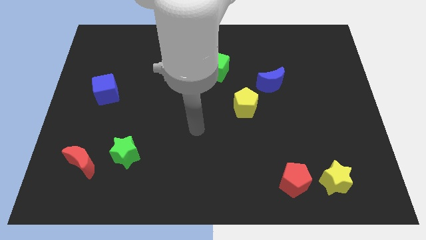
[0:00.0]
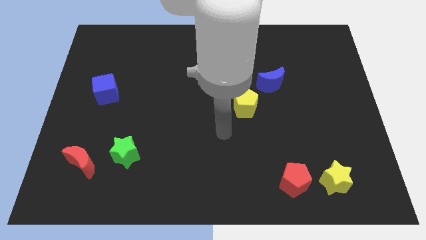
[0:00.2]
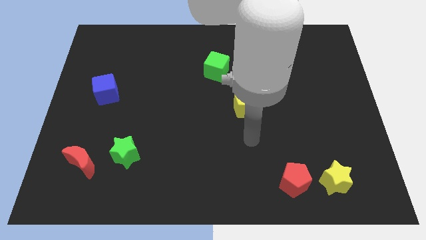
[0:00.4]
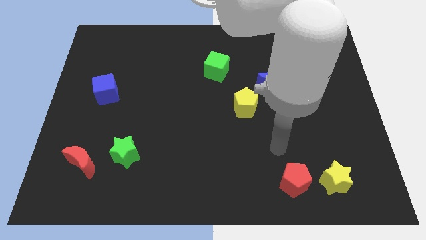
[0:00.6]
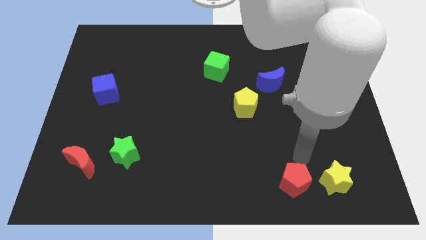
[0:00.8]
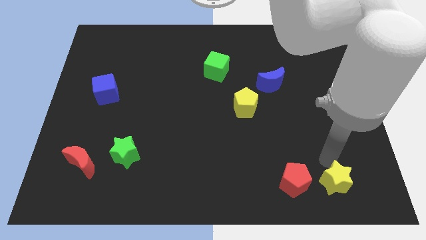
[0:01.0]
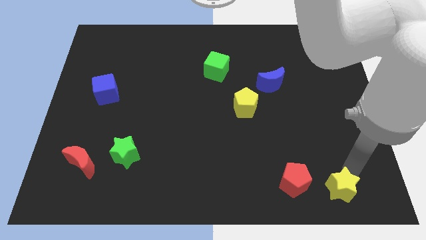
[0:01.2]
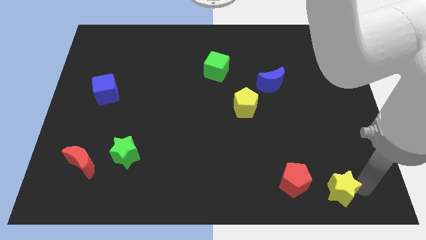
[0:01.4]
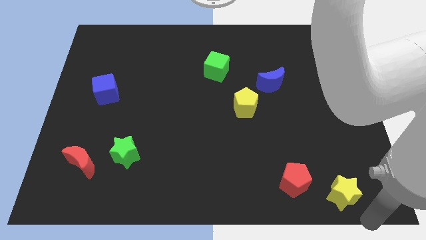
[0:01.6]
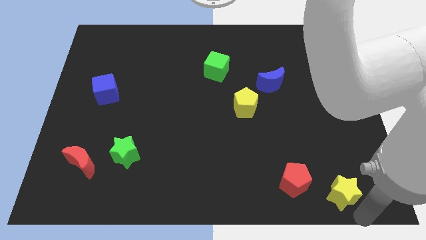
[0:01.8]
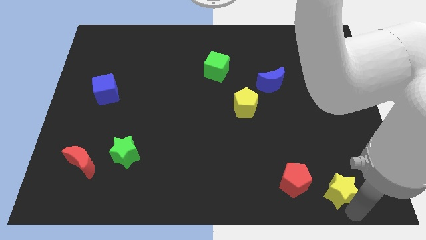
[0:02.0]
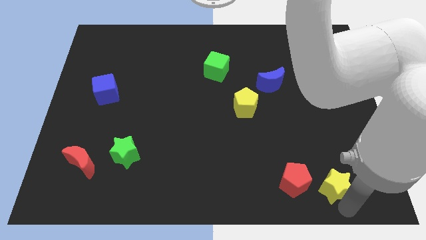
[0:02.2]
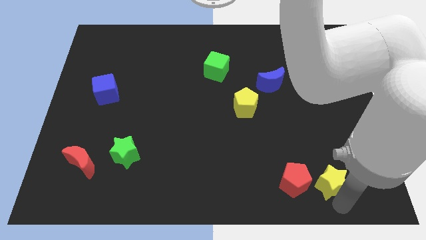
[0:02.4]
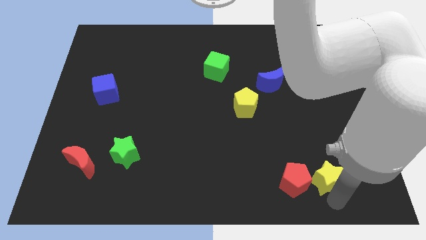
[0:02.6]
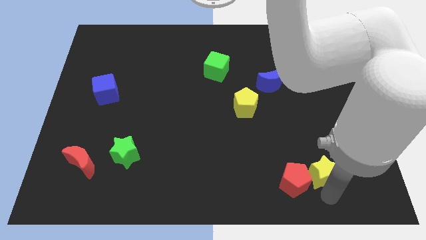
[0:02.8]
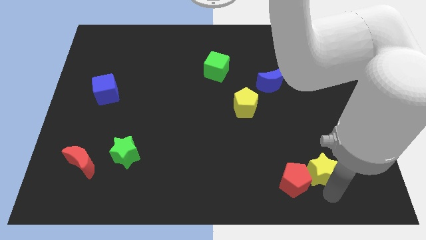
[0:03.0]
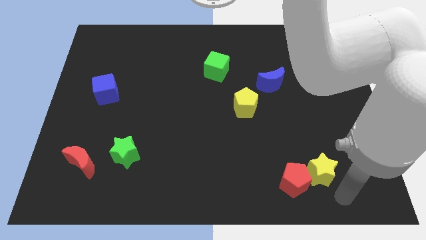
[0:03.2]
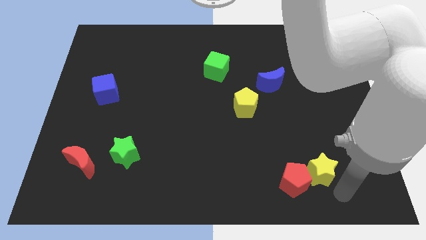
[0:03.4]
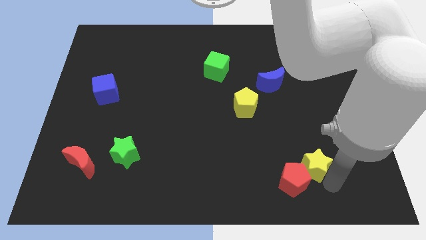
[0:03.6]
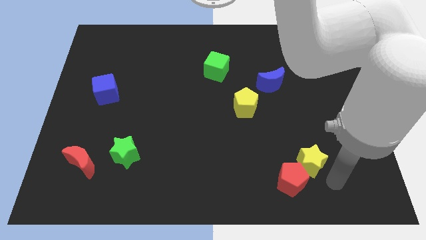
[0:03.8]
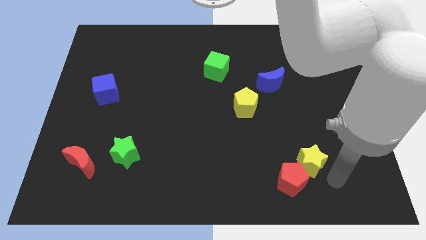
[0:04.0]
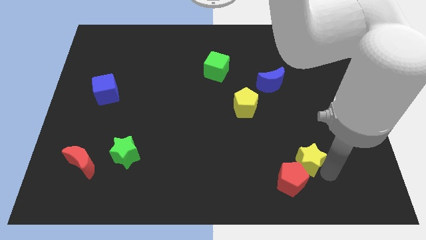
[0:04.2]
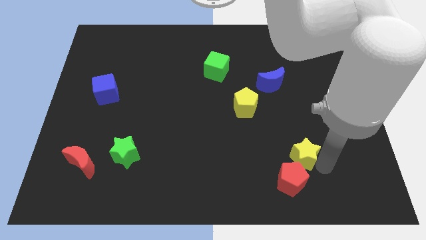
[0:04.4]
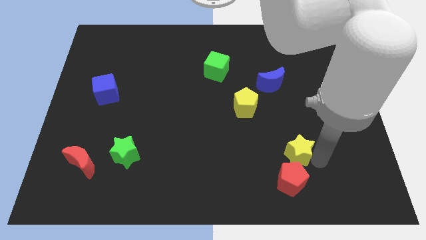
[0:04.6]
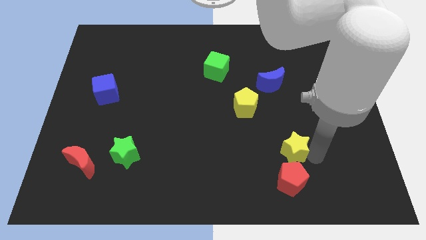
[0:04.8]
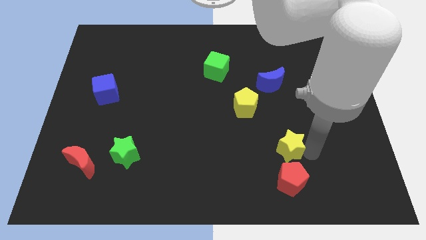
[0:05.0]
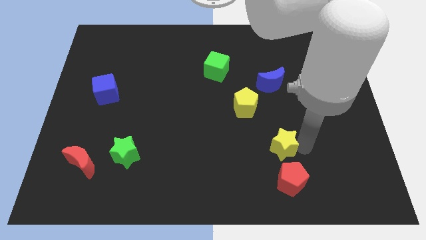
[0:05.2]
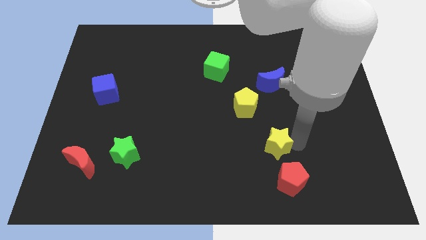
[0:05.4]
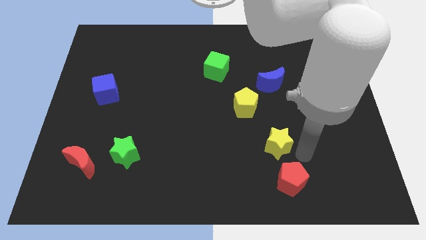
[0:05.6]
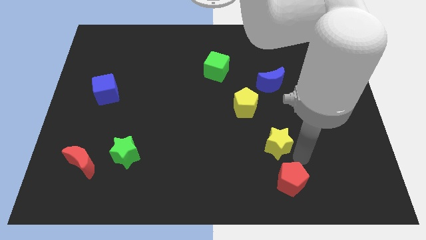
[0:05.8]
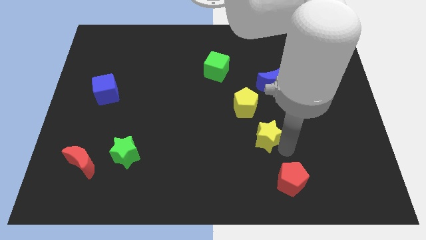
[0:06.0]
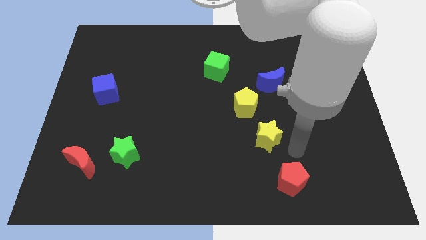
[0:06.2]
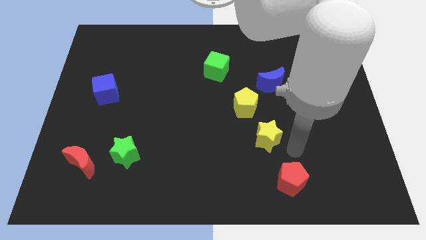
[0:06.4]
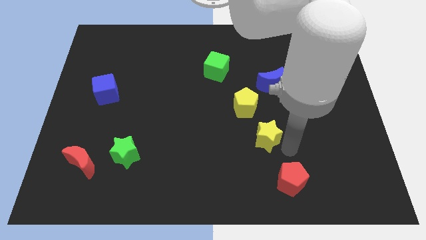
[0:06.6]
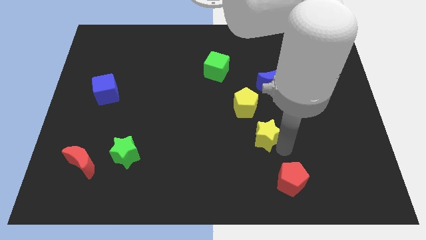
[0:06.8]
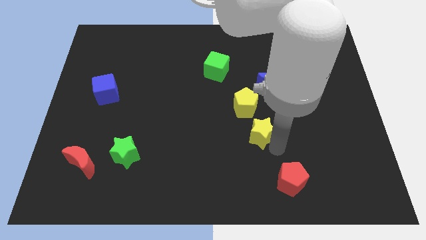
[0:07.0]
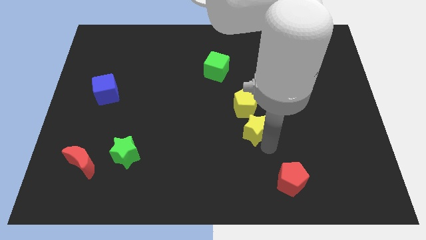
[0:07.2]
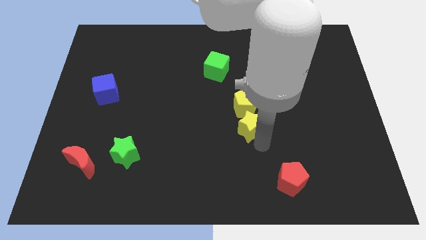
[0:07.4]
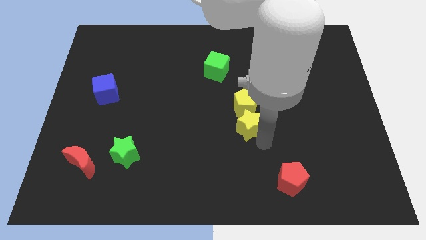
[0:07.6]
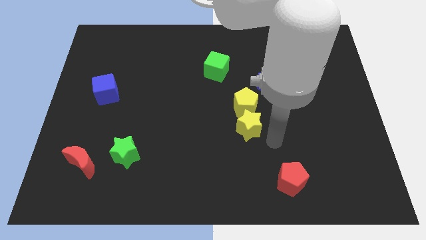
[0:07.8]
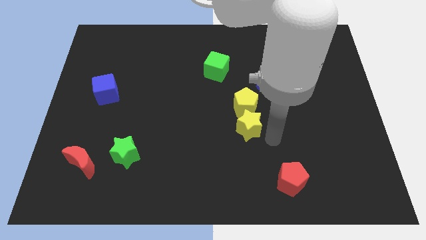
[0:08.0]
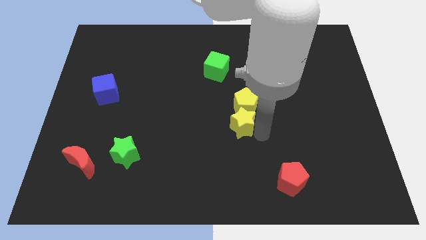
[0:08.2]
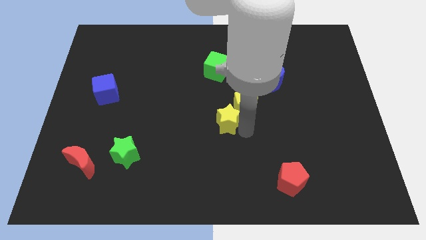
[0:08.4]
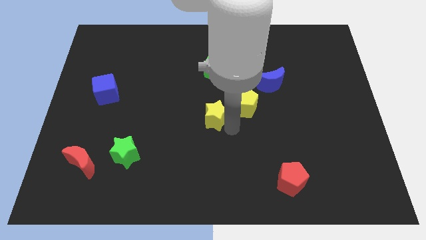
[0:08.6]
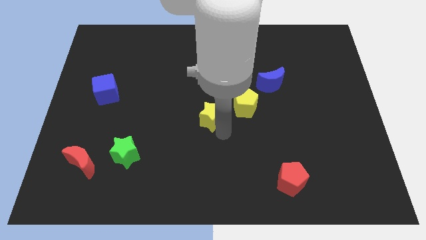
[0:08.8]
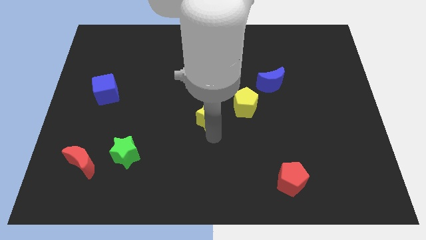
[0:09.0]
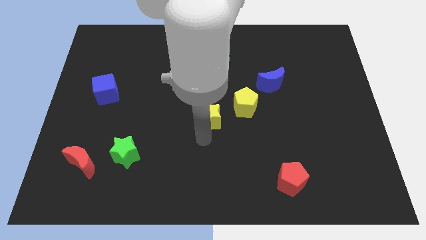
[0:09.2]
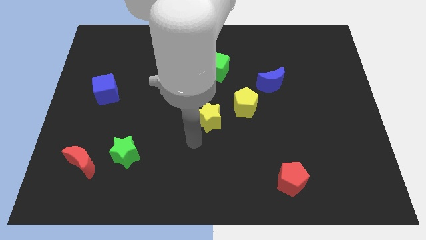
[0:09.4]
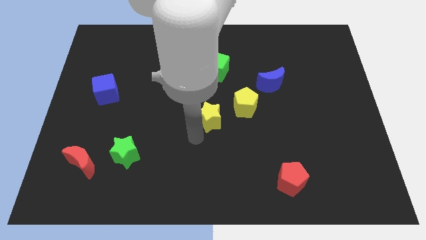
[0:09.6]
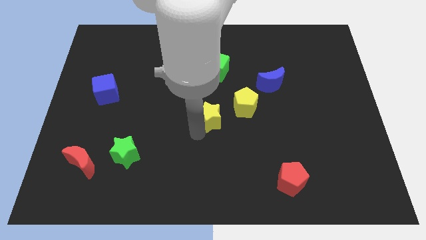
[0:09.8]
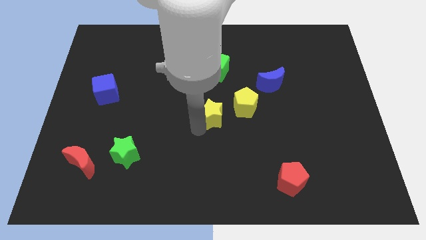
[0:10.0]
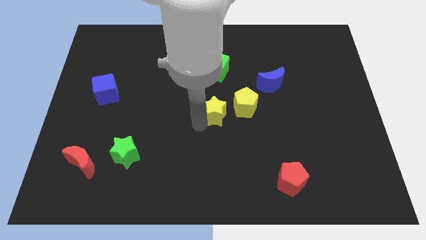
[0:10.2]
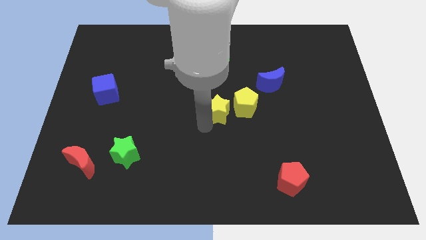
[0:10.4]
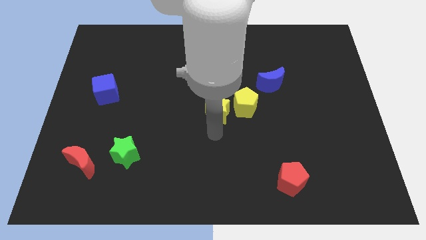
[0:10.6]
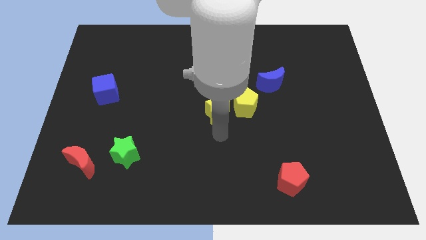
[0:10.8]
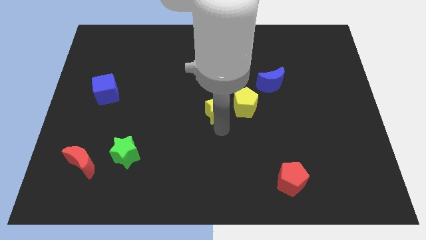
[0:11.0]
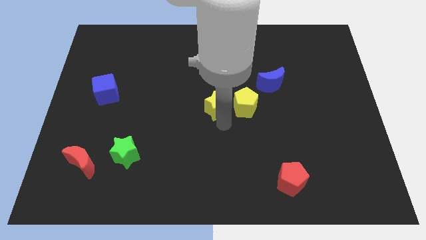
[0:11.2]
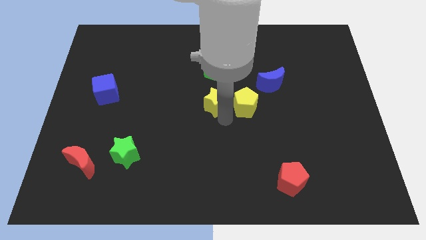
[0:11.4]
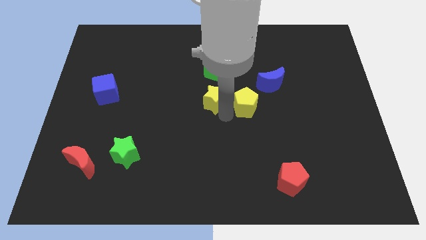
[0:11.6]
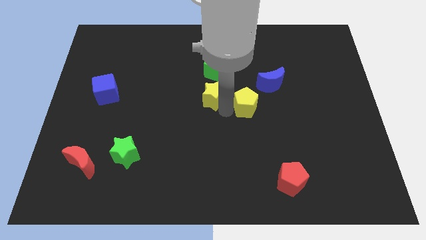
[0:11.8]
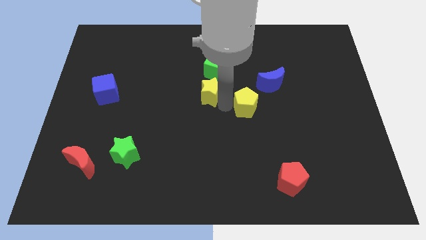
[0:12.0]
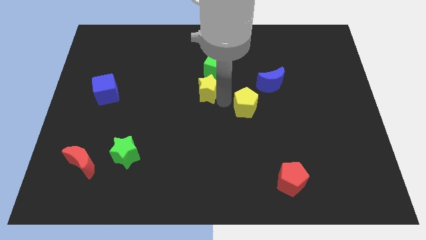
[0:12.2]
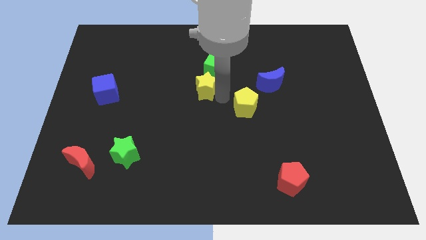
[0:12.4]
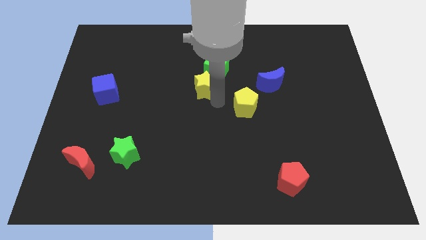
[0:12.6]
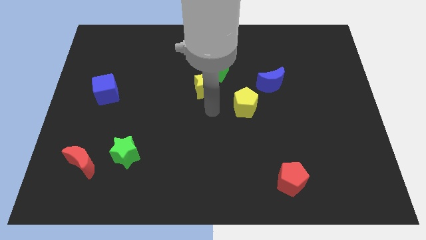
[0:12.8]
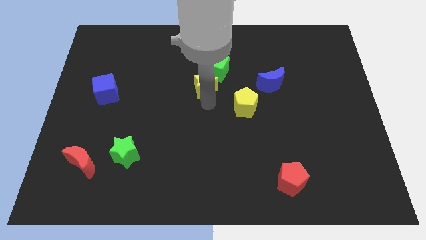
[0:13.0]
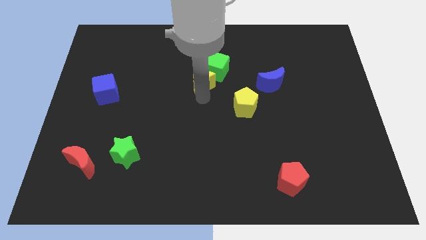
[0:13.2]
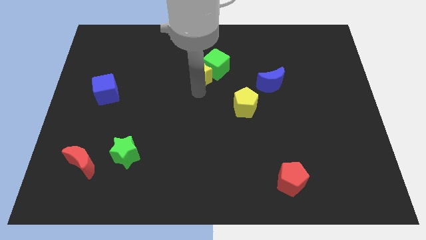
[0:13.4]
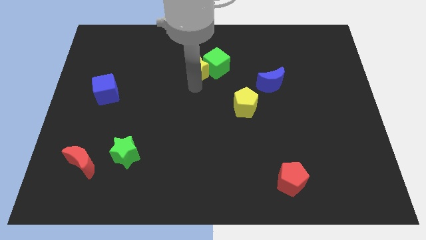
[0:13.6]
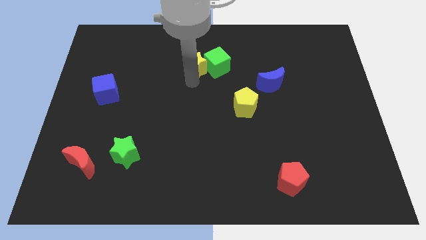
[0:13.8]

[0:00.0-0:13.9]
put the yellow star to the top left of the green cube
